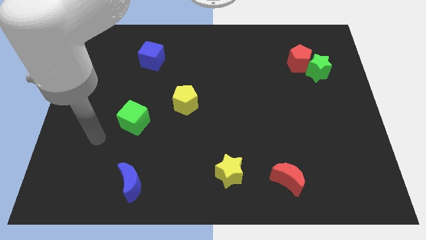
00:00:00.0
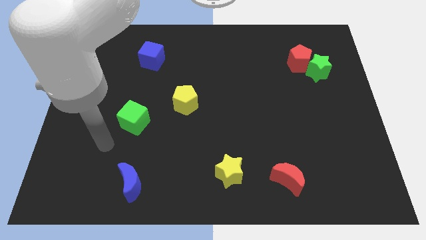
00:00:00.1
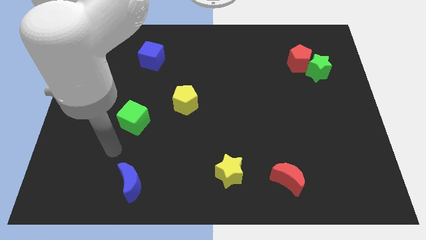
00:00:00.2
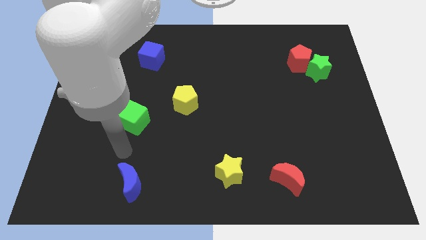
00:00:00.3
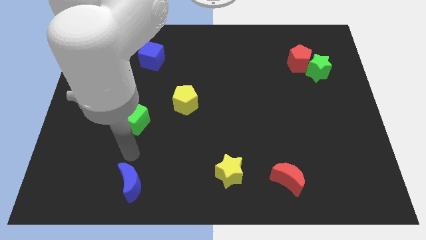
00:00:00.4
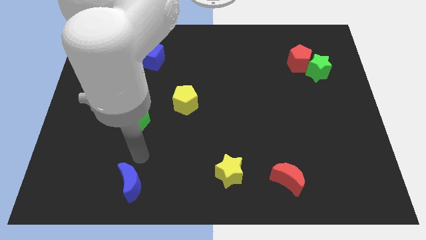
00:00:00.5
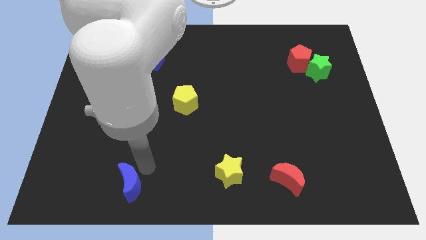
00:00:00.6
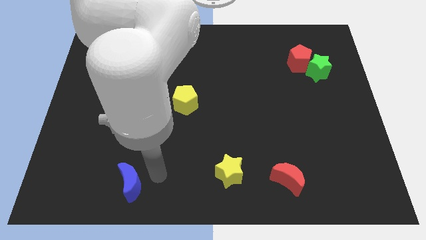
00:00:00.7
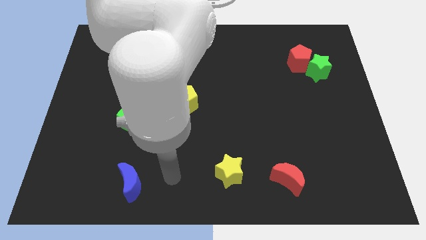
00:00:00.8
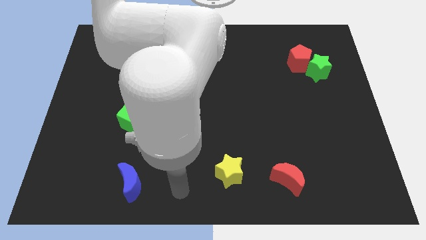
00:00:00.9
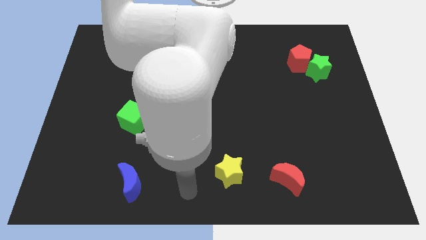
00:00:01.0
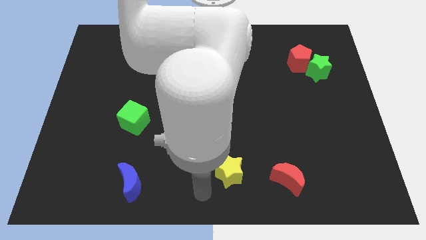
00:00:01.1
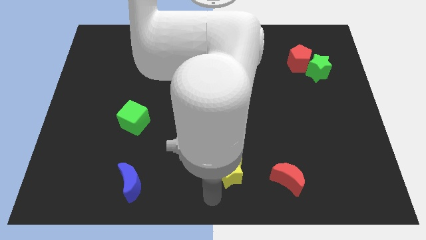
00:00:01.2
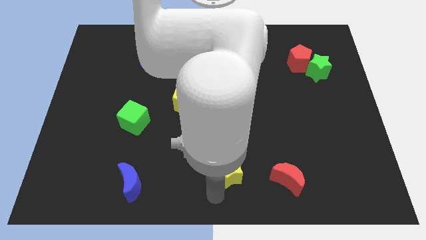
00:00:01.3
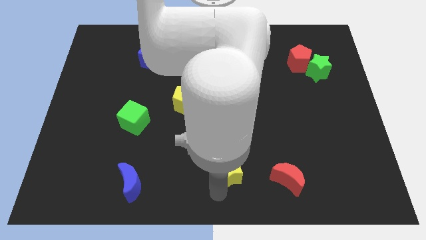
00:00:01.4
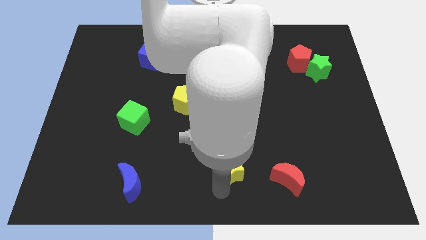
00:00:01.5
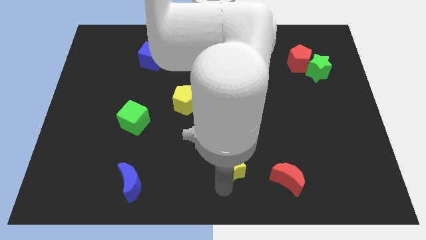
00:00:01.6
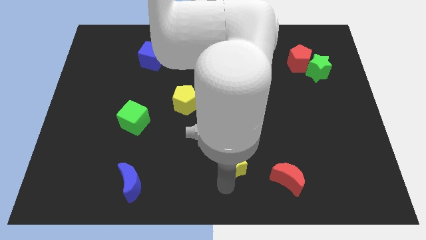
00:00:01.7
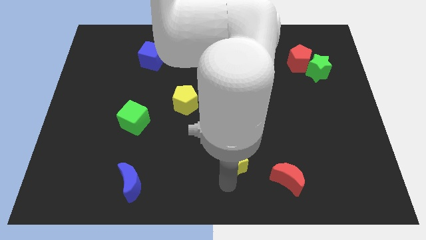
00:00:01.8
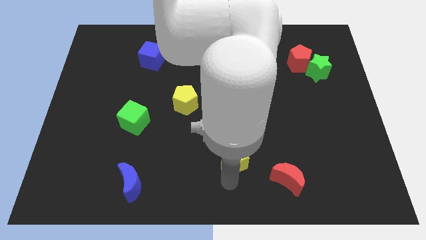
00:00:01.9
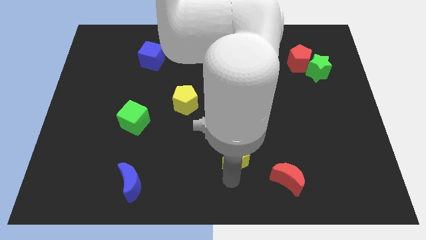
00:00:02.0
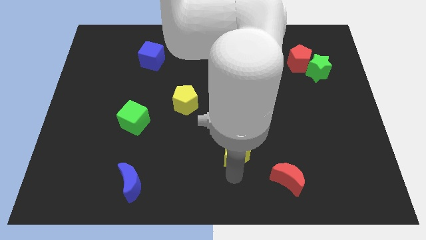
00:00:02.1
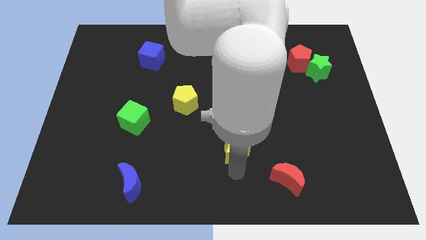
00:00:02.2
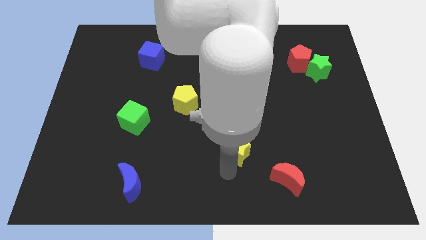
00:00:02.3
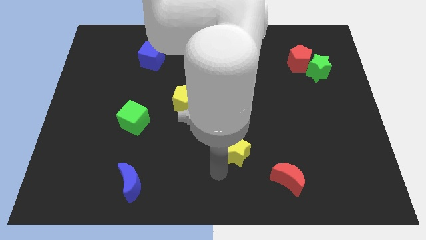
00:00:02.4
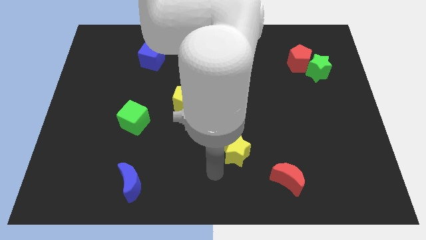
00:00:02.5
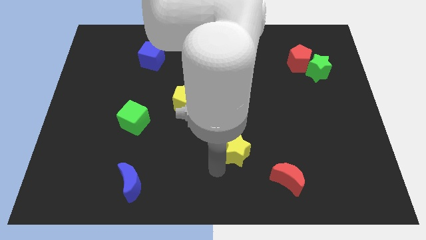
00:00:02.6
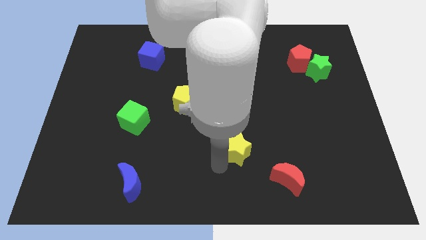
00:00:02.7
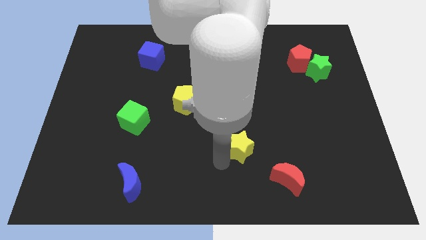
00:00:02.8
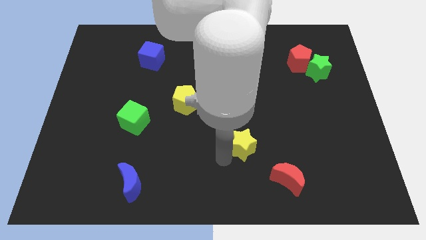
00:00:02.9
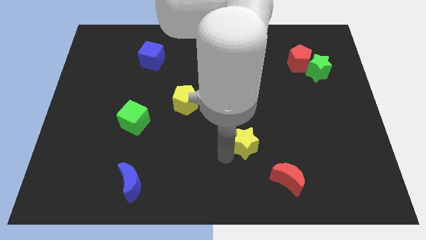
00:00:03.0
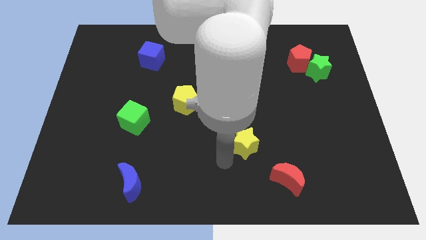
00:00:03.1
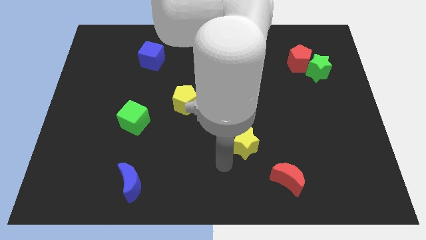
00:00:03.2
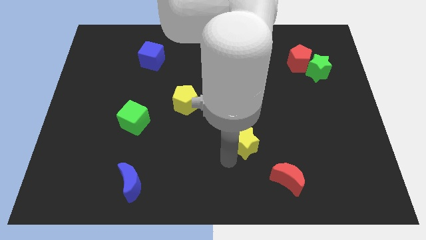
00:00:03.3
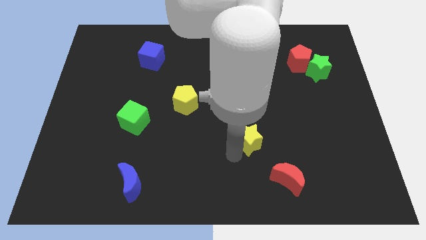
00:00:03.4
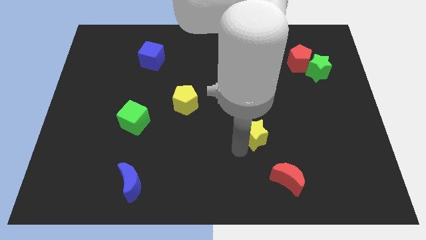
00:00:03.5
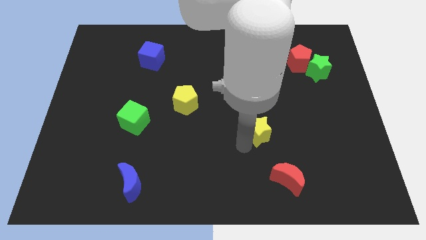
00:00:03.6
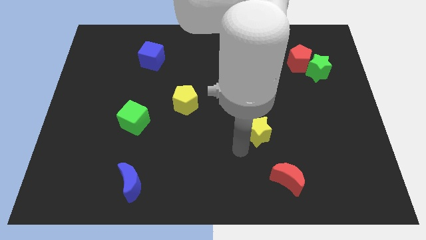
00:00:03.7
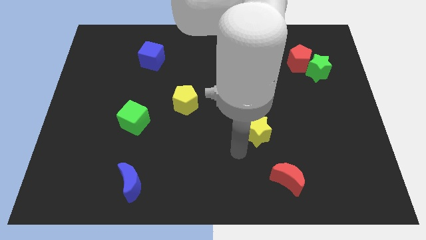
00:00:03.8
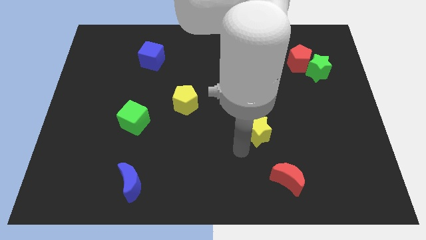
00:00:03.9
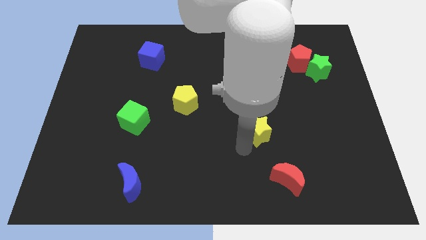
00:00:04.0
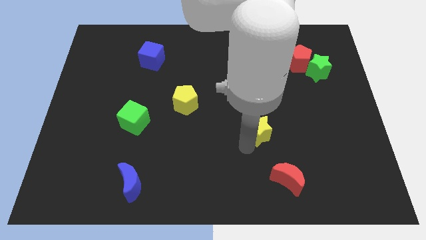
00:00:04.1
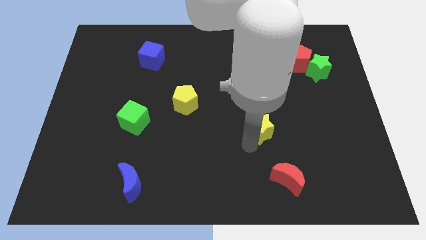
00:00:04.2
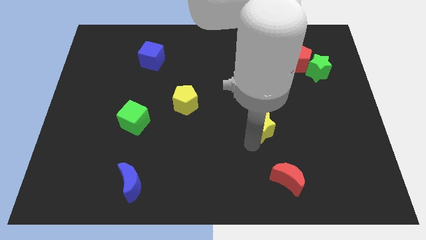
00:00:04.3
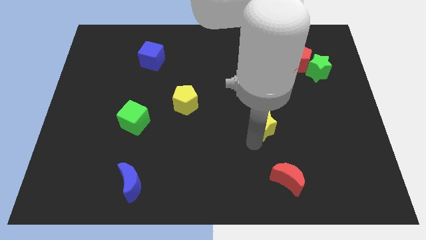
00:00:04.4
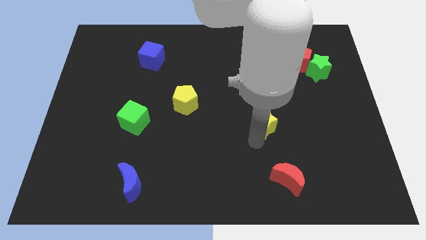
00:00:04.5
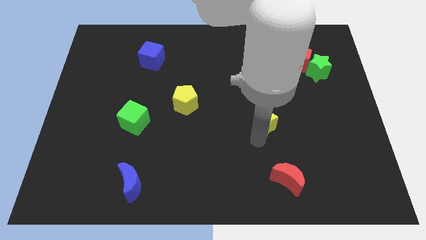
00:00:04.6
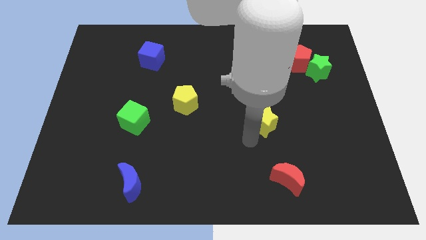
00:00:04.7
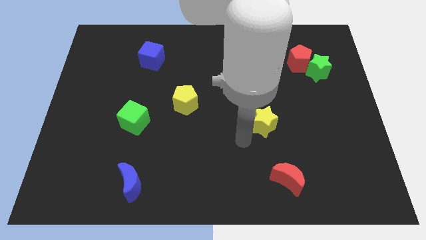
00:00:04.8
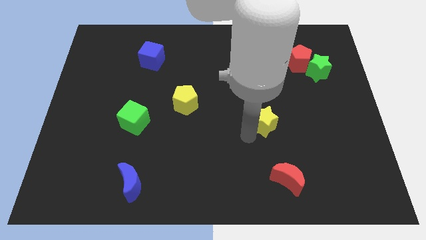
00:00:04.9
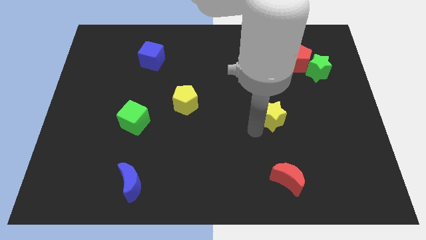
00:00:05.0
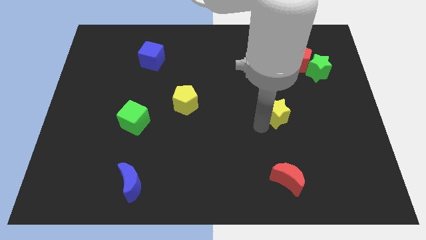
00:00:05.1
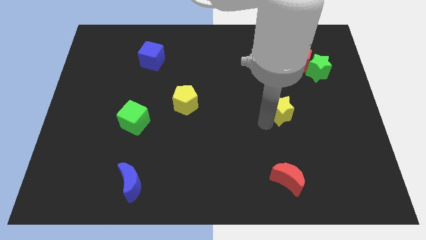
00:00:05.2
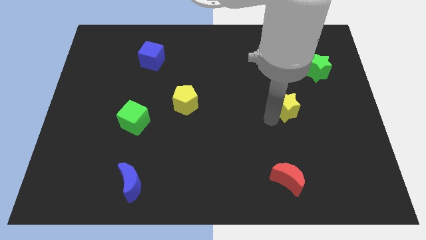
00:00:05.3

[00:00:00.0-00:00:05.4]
move the yellow star diagonally up and right

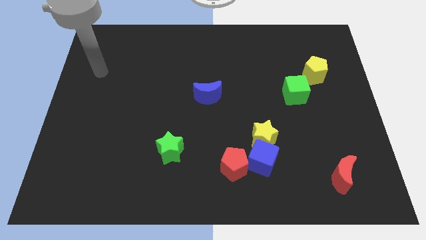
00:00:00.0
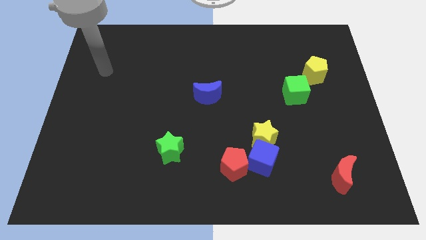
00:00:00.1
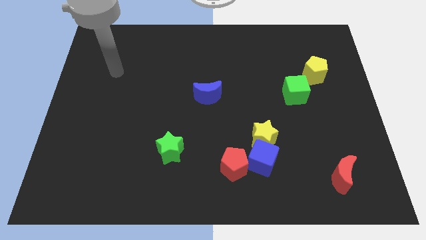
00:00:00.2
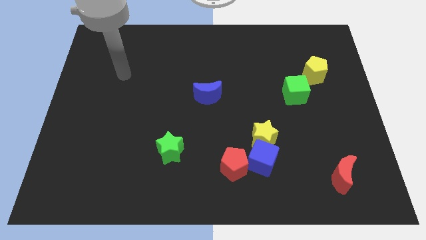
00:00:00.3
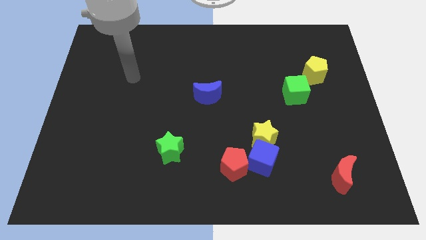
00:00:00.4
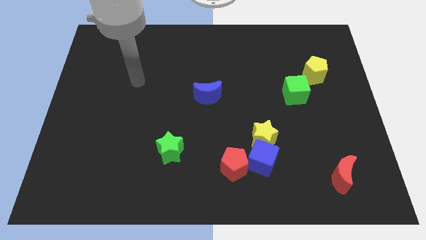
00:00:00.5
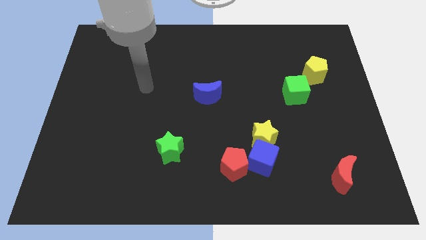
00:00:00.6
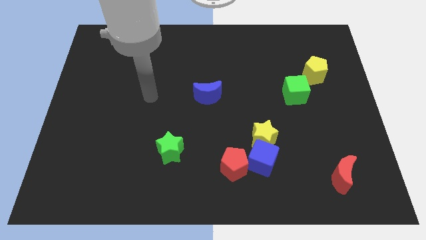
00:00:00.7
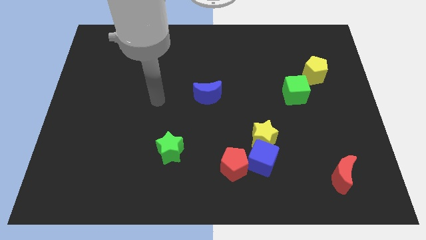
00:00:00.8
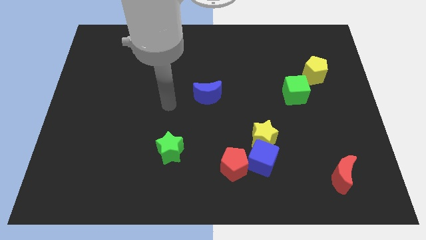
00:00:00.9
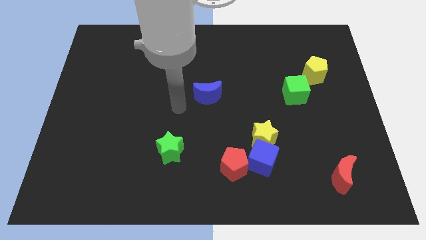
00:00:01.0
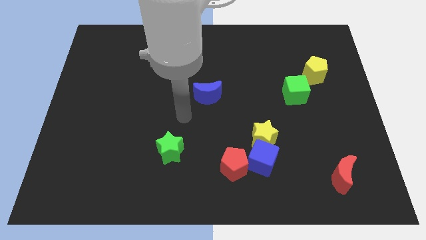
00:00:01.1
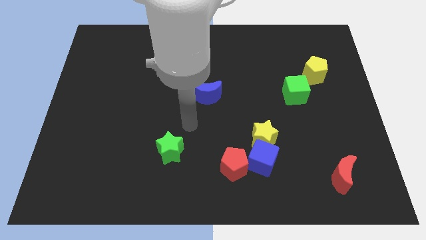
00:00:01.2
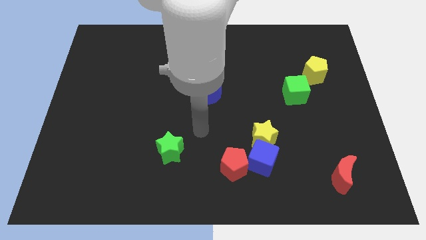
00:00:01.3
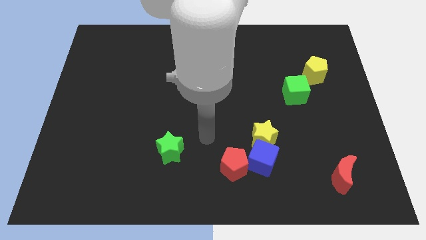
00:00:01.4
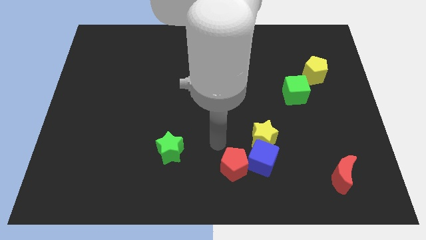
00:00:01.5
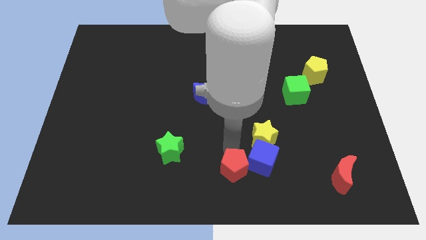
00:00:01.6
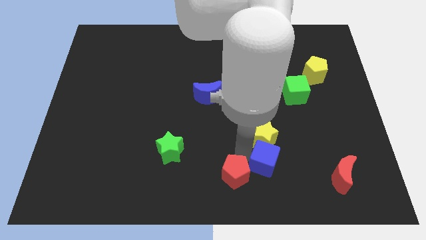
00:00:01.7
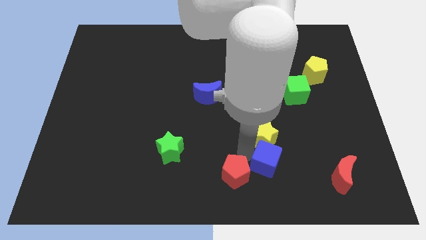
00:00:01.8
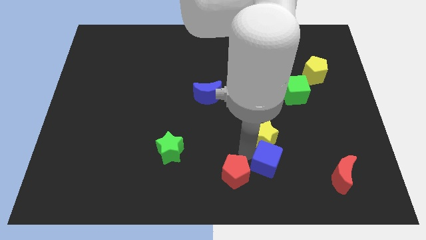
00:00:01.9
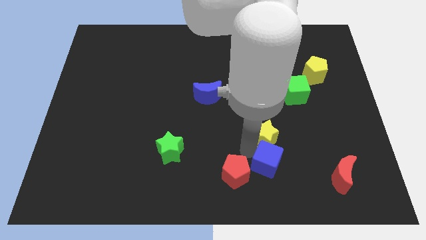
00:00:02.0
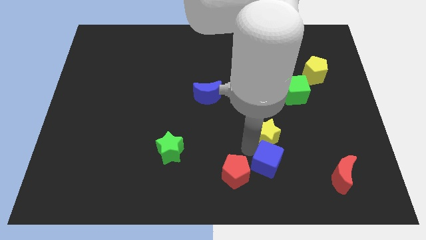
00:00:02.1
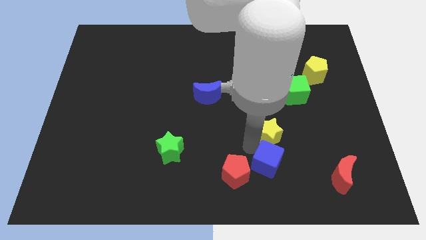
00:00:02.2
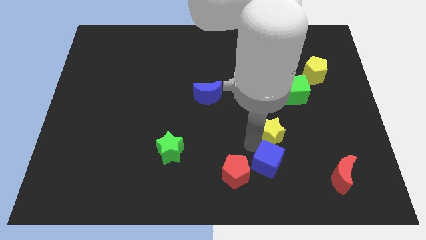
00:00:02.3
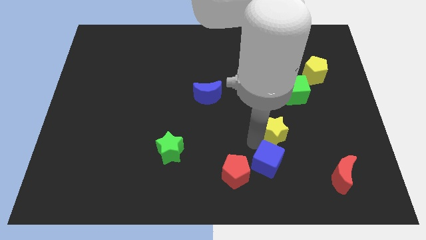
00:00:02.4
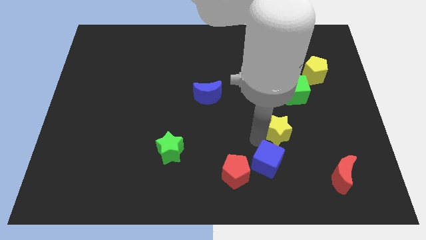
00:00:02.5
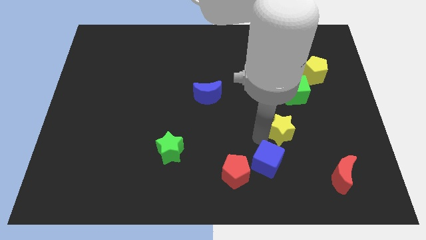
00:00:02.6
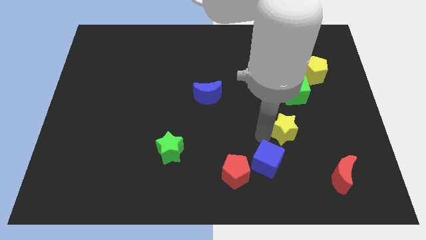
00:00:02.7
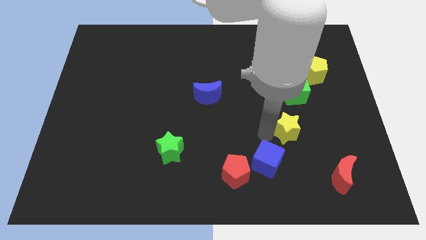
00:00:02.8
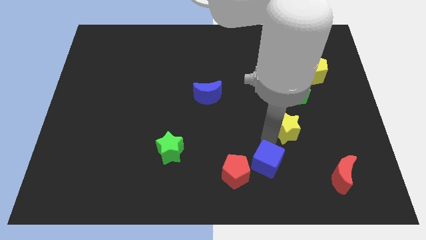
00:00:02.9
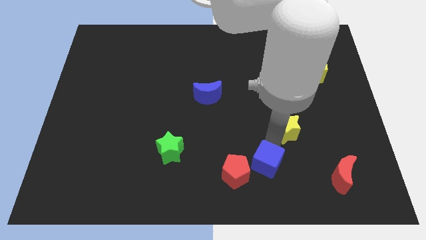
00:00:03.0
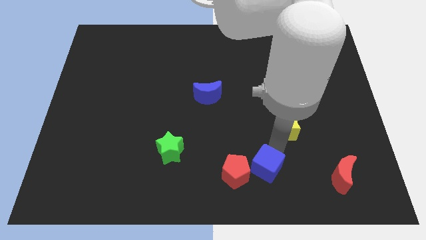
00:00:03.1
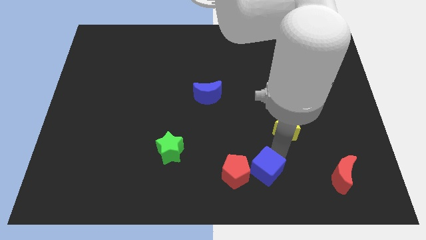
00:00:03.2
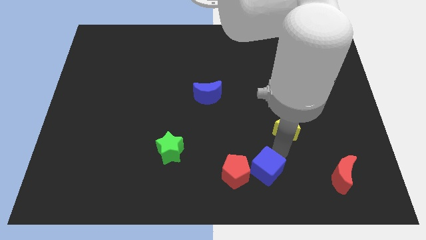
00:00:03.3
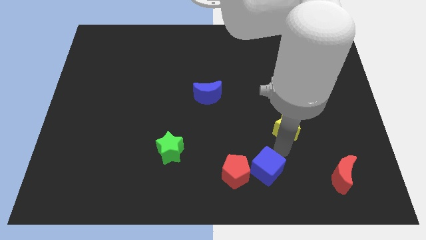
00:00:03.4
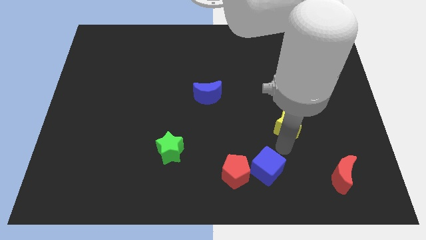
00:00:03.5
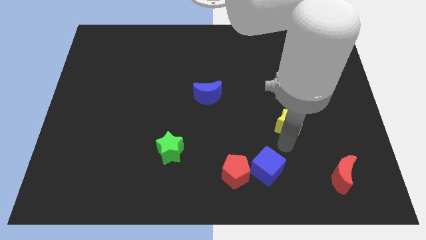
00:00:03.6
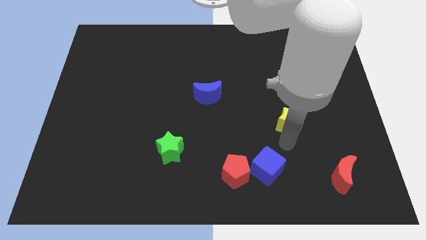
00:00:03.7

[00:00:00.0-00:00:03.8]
push the yellow star a little upwards and right diagonally
